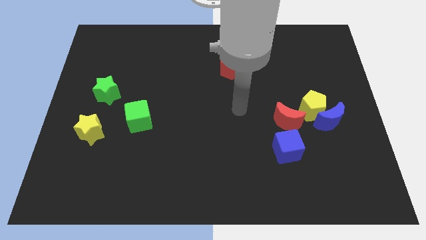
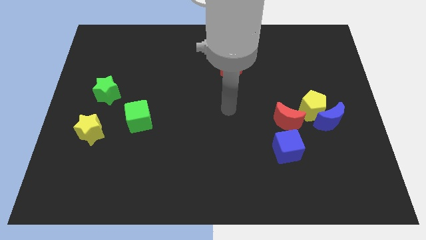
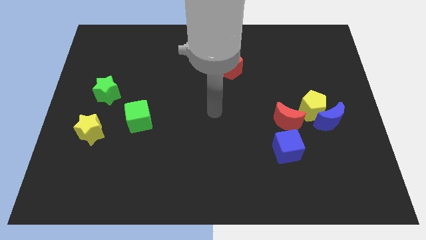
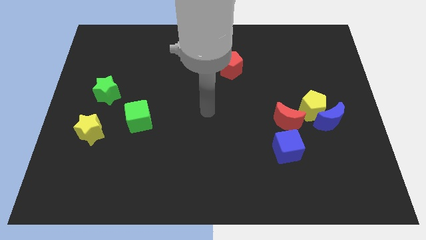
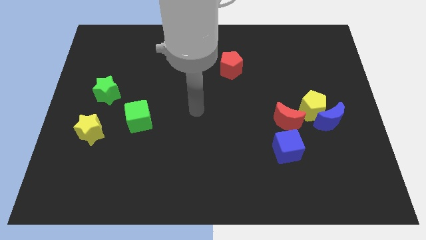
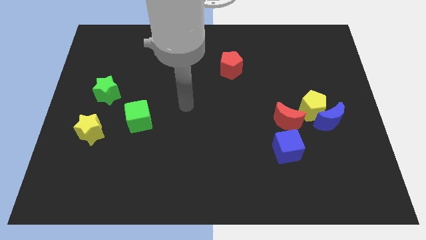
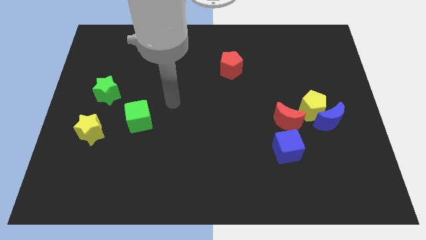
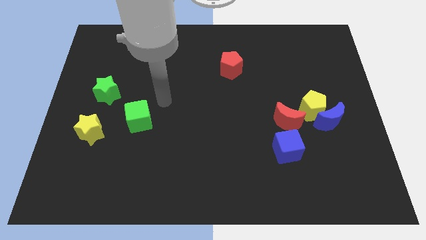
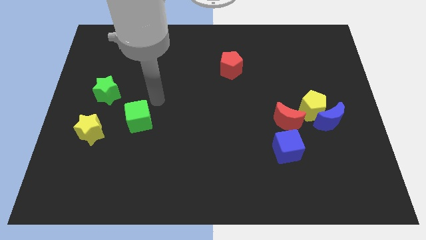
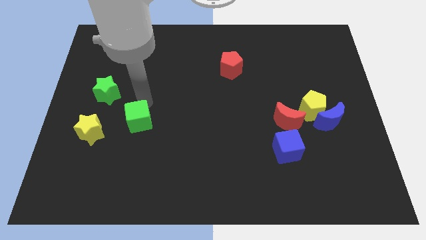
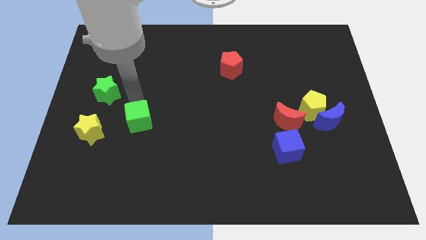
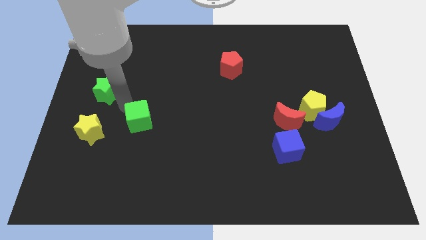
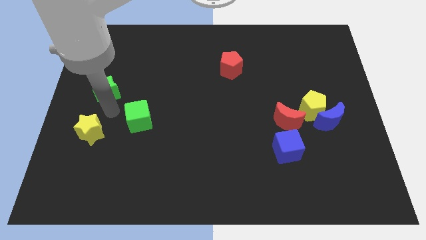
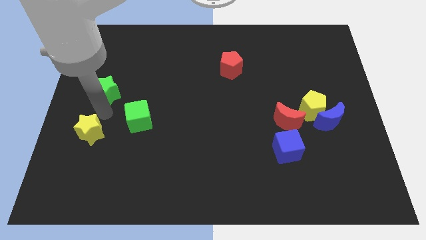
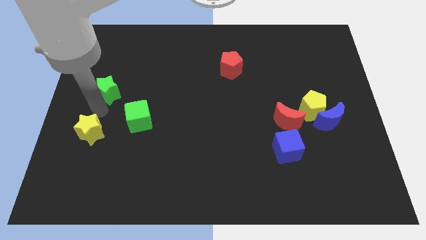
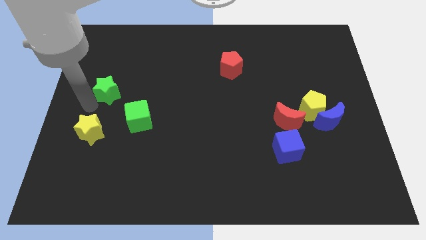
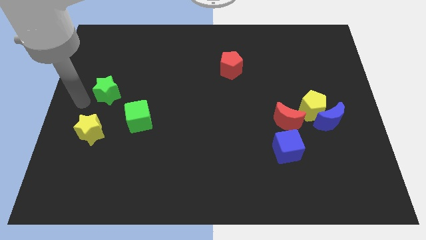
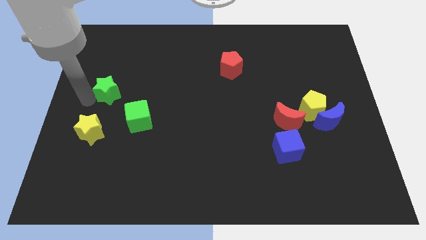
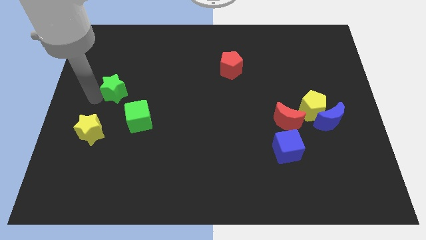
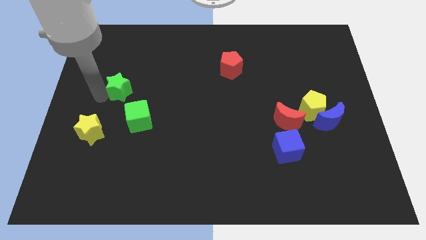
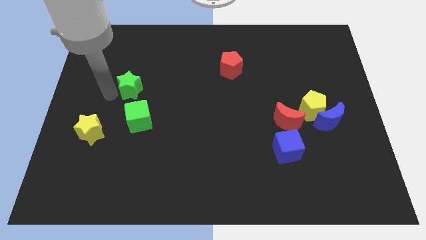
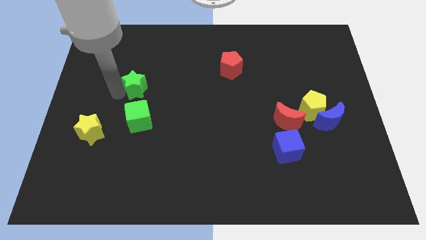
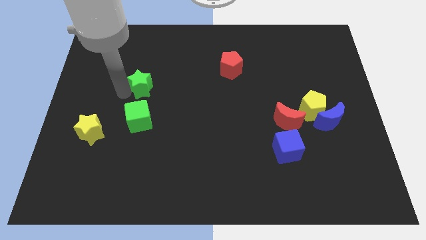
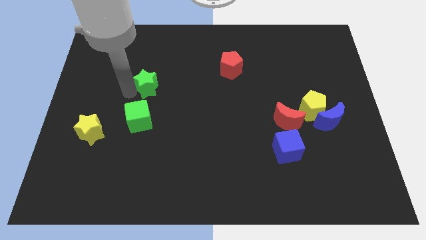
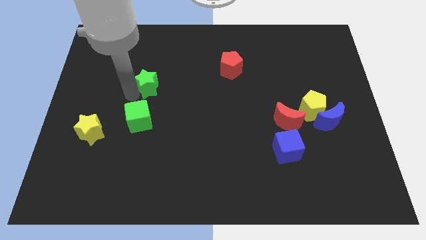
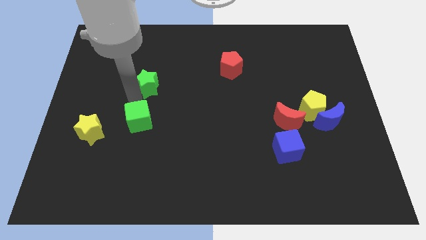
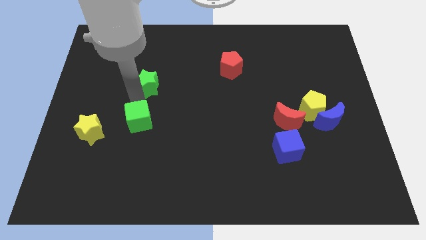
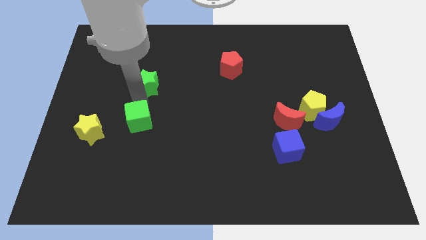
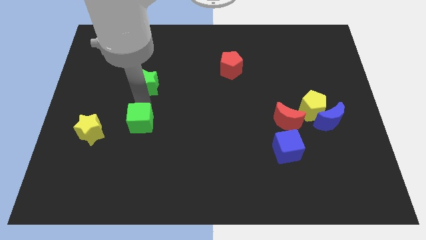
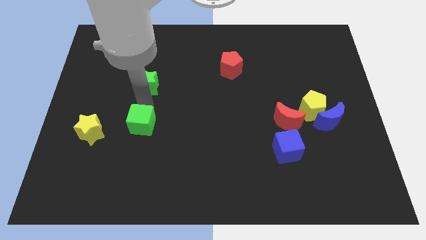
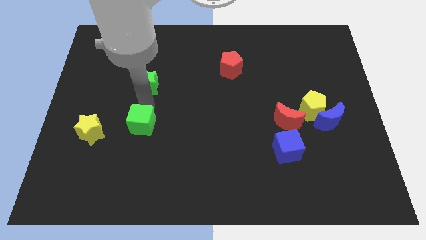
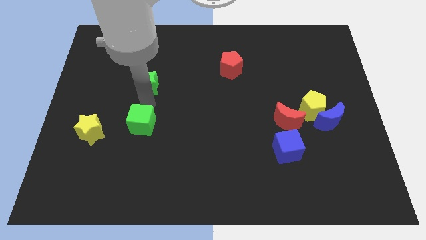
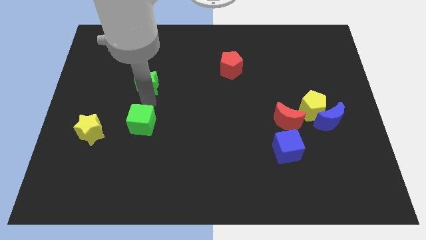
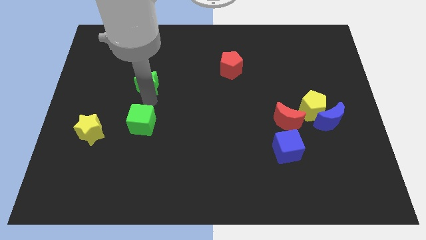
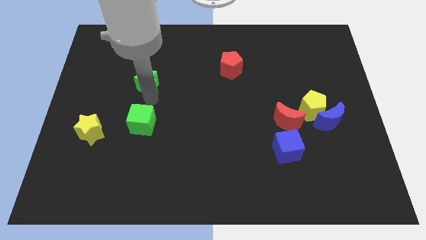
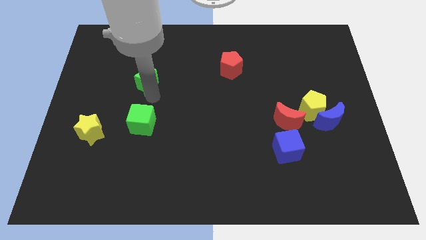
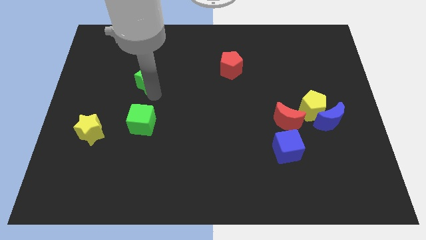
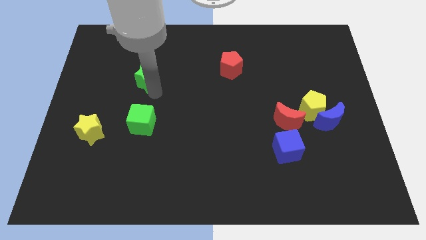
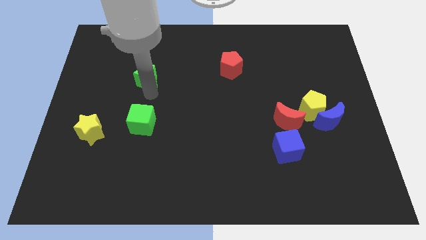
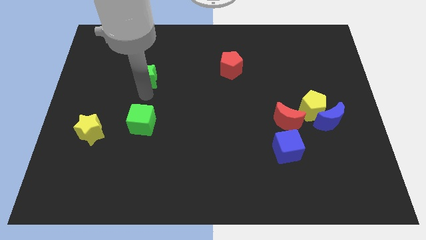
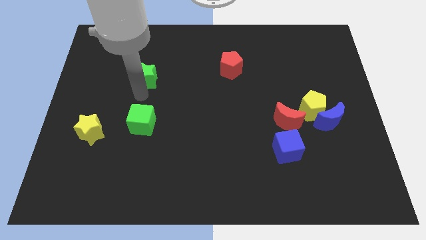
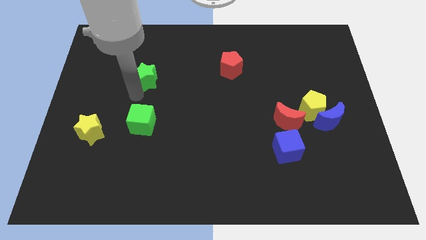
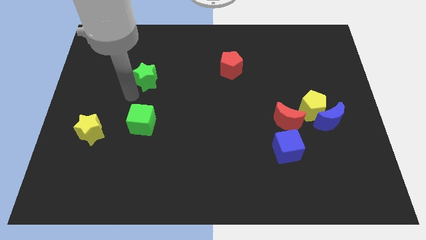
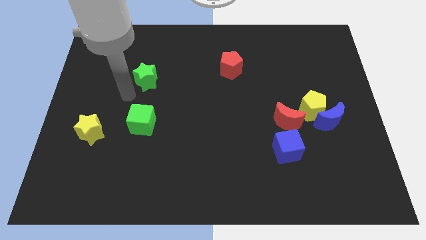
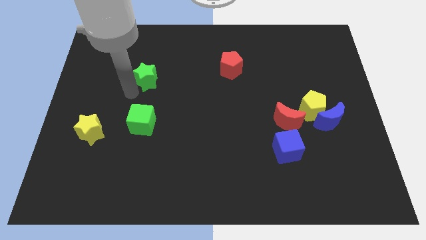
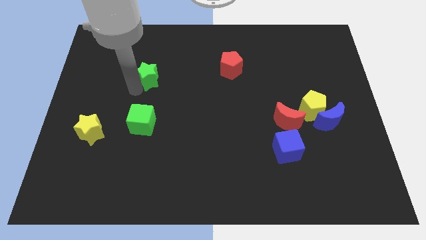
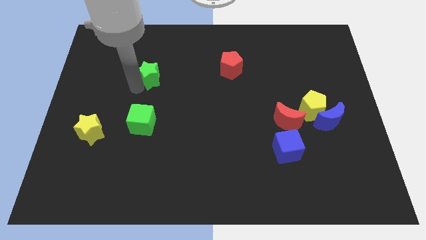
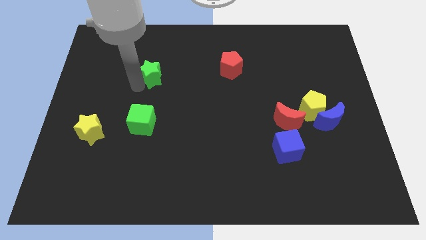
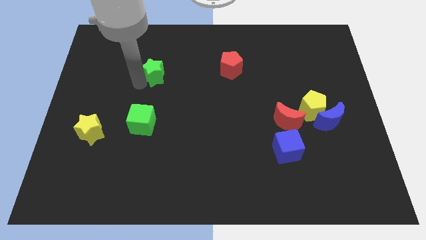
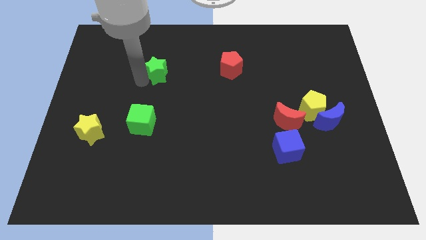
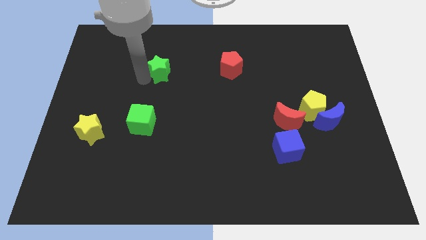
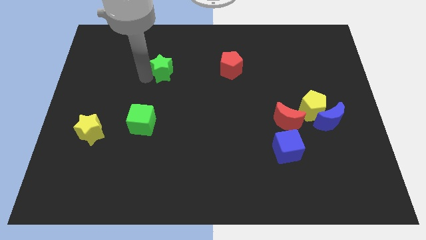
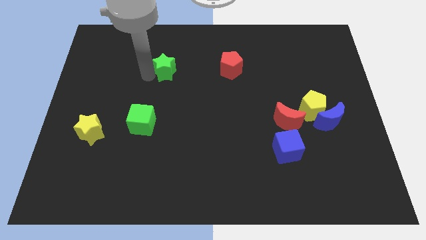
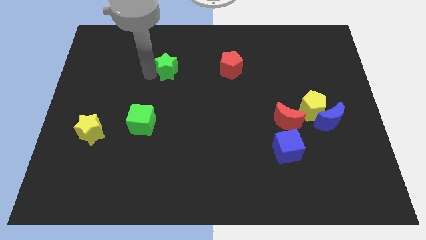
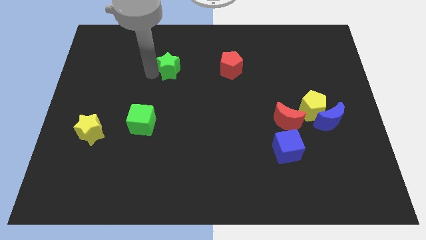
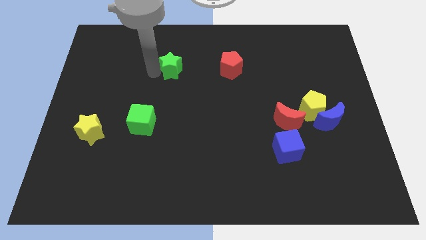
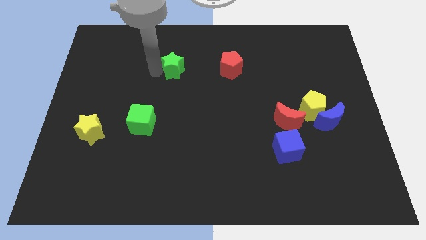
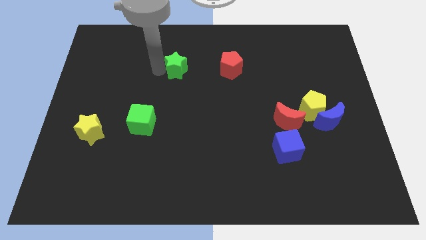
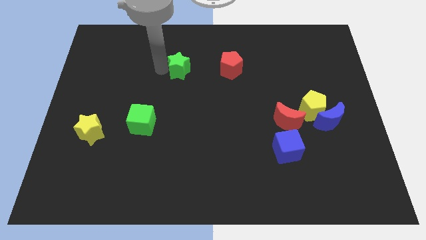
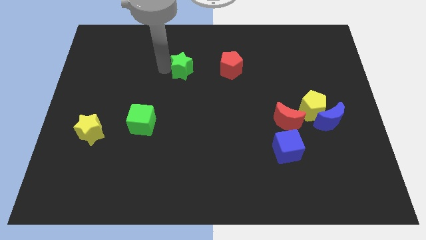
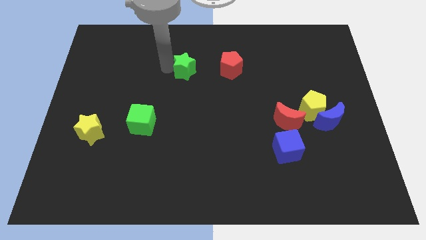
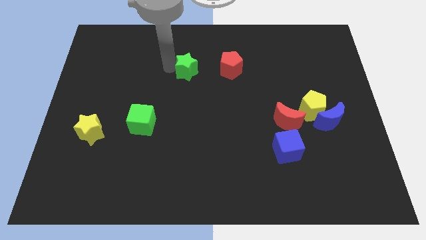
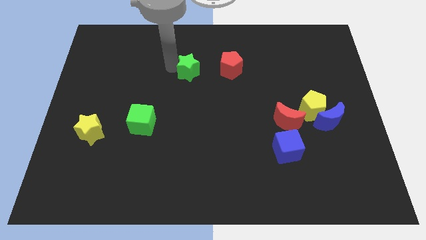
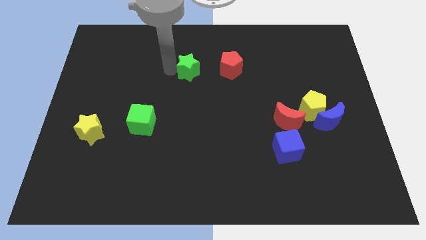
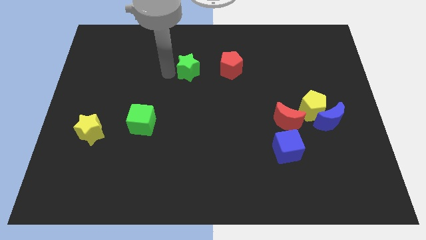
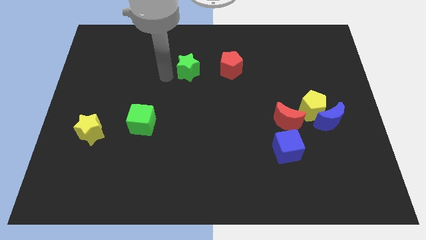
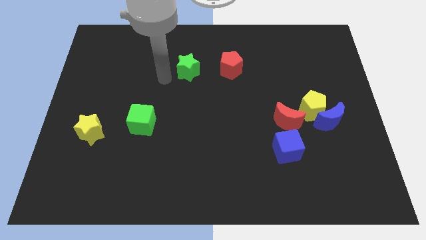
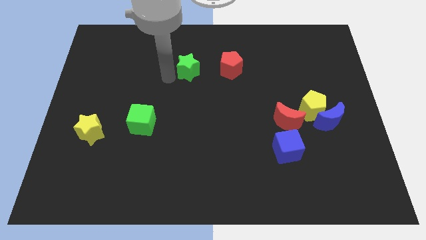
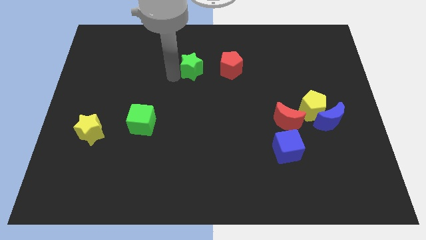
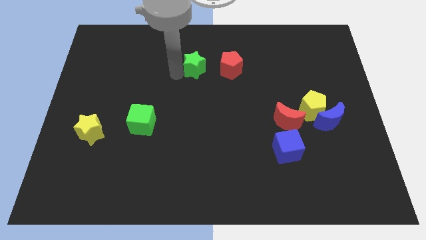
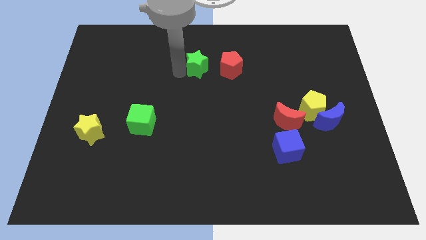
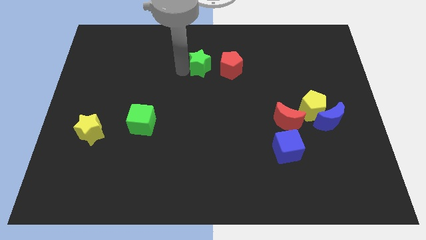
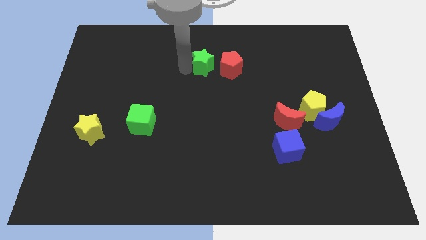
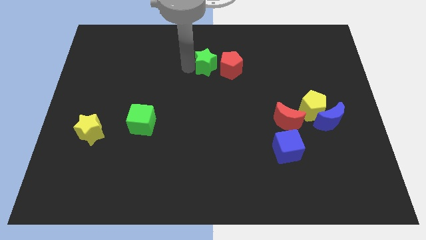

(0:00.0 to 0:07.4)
slide the green star next to the red pentagon

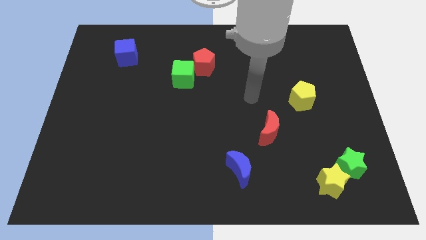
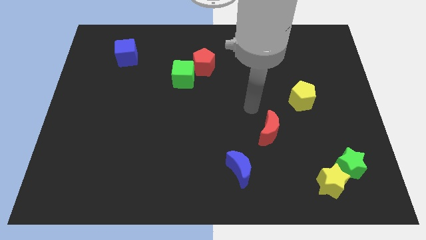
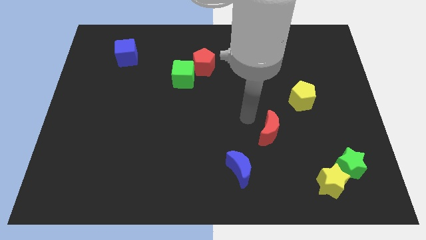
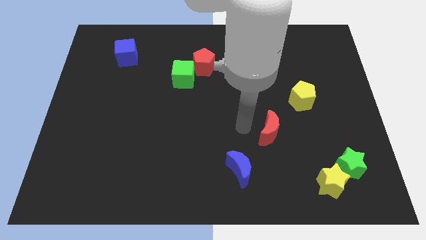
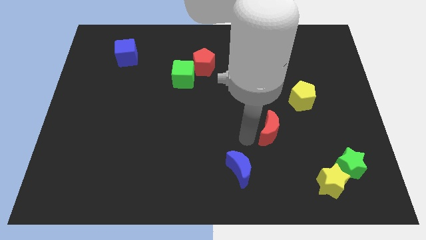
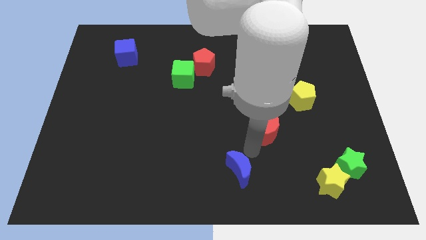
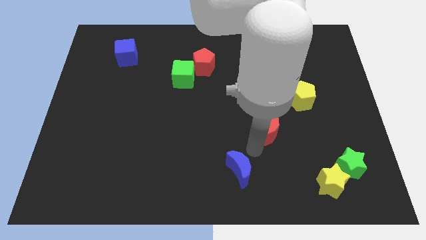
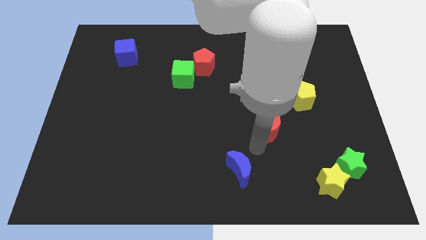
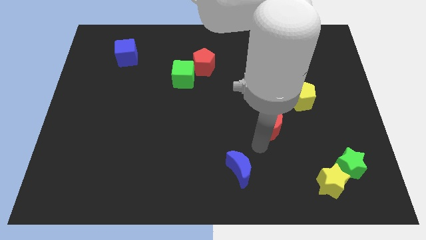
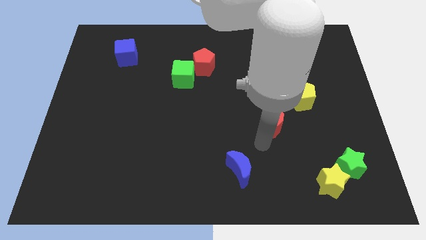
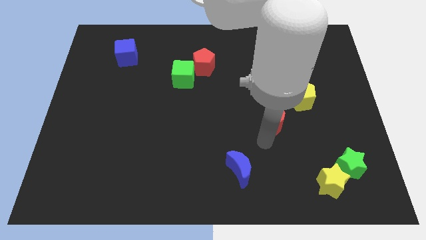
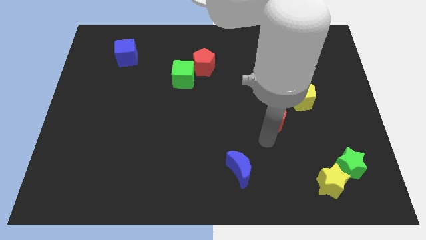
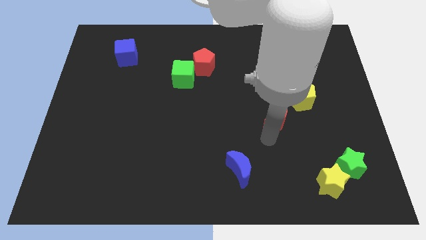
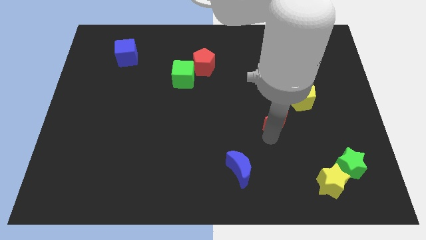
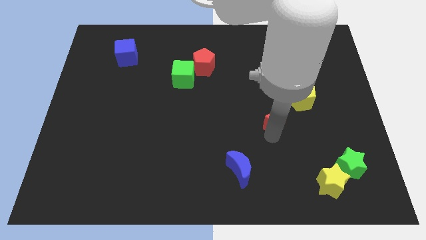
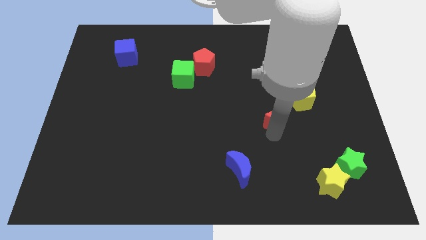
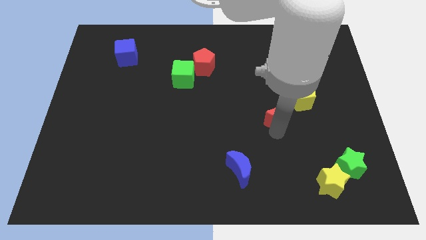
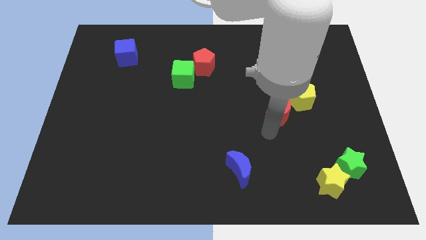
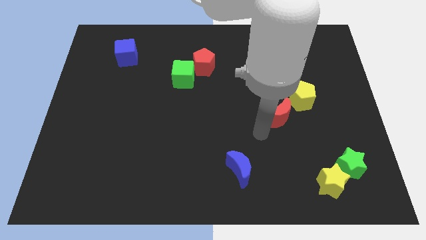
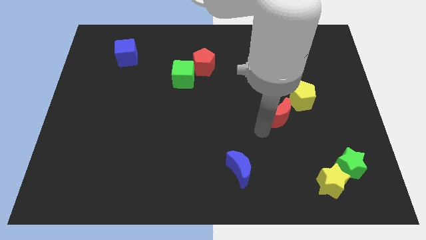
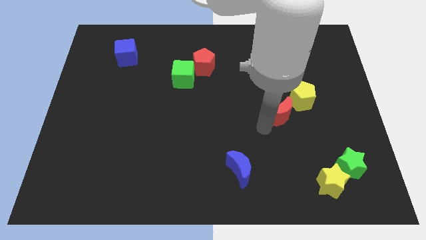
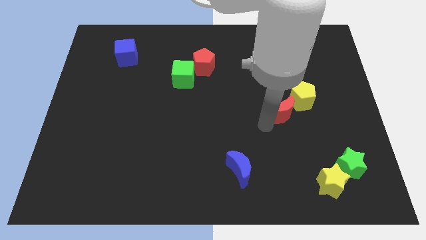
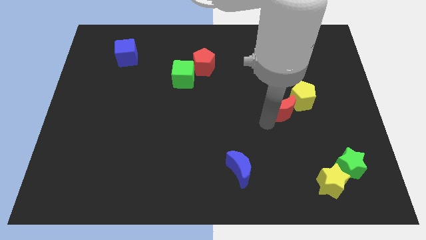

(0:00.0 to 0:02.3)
move the red moon next to the yellow pentagon
